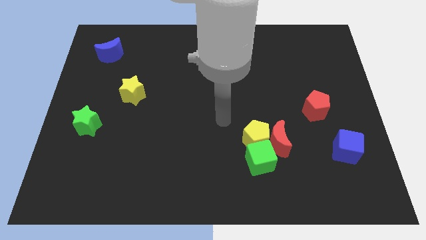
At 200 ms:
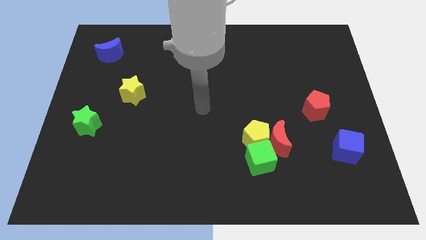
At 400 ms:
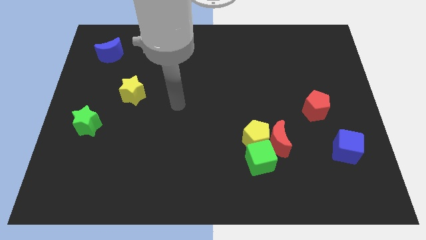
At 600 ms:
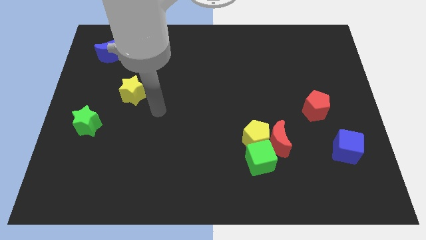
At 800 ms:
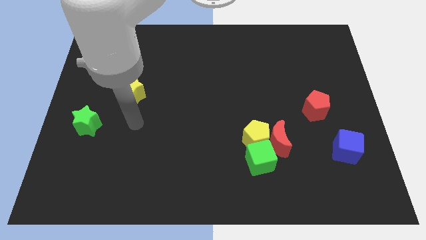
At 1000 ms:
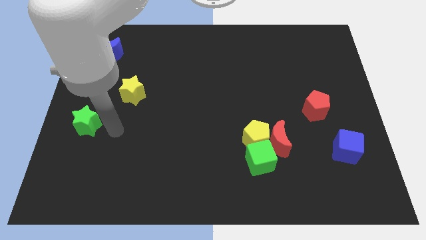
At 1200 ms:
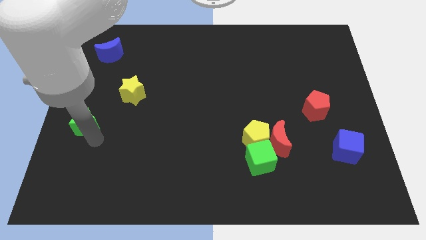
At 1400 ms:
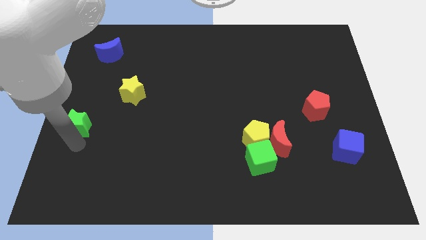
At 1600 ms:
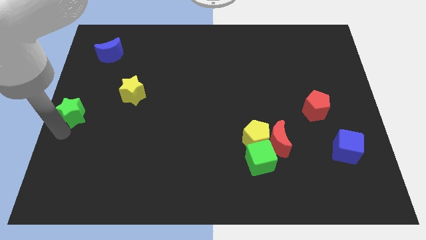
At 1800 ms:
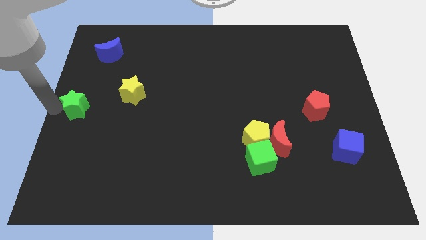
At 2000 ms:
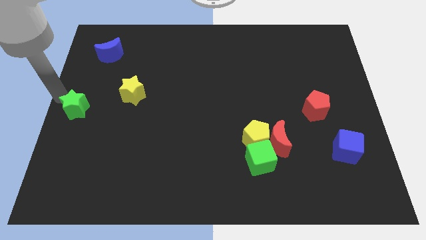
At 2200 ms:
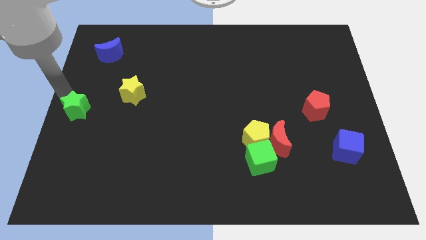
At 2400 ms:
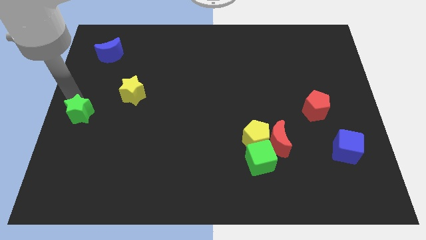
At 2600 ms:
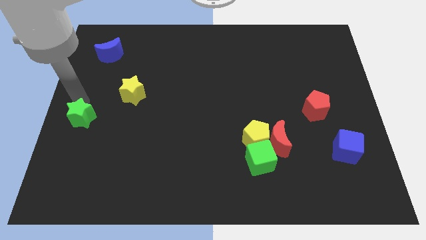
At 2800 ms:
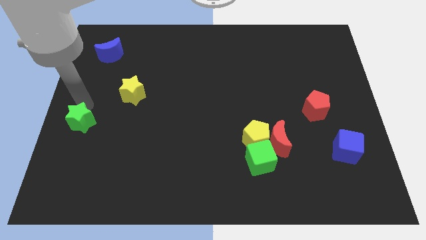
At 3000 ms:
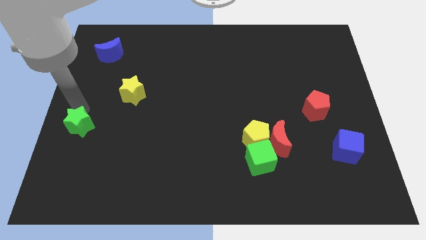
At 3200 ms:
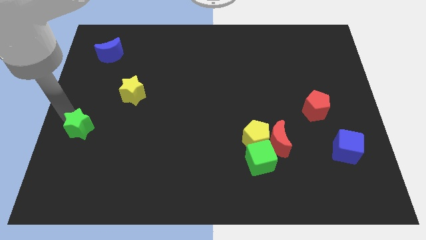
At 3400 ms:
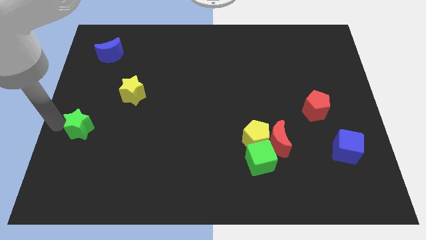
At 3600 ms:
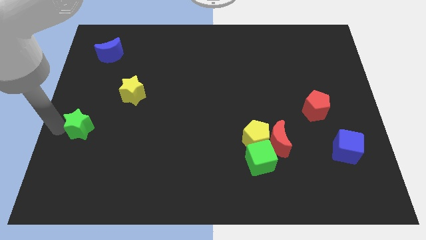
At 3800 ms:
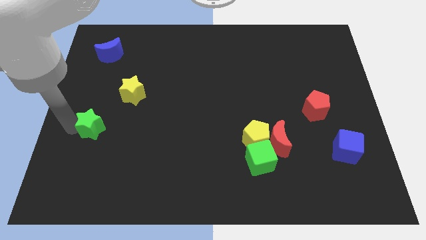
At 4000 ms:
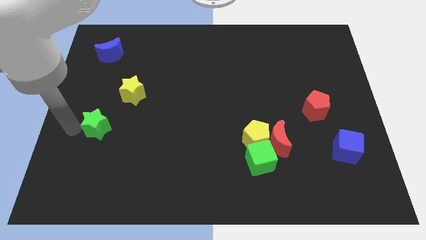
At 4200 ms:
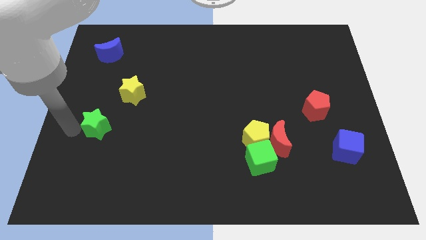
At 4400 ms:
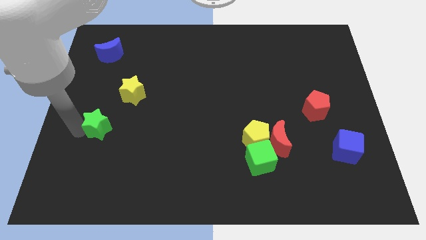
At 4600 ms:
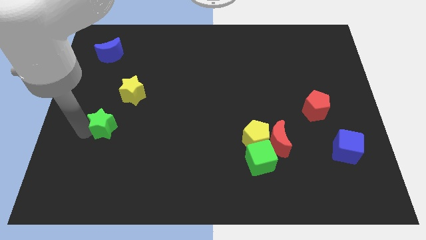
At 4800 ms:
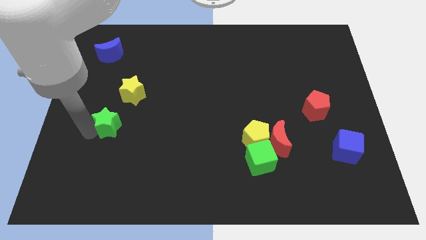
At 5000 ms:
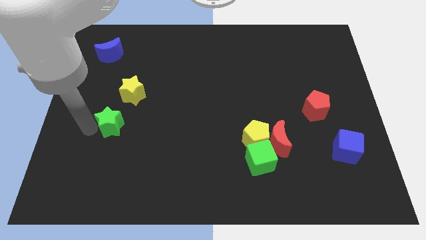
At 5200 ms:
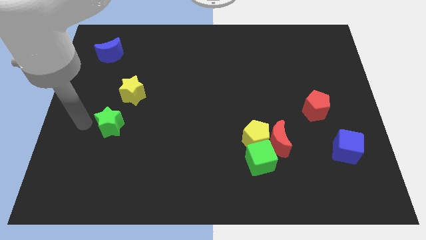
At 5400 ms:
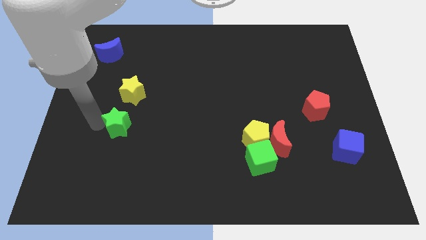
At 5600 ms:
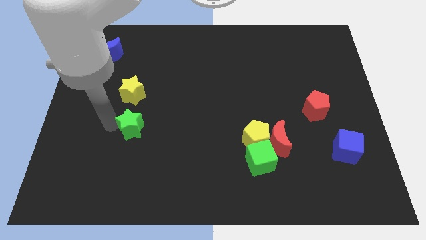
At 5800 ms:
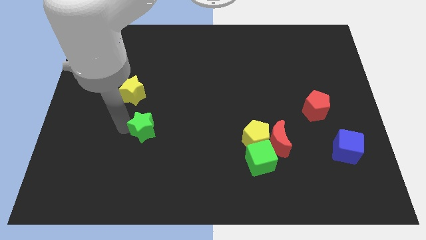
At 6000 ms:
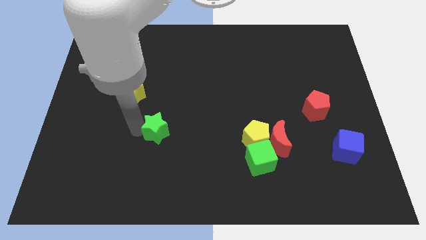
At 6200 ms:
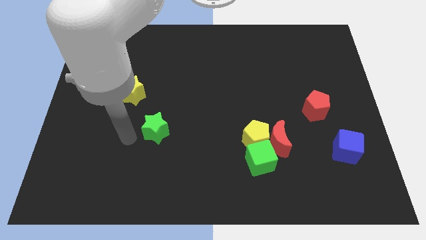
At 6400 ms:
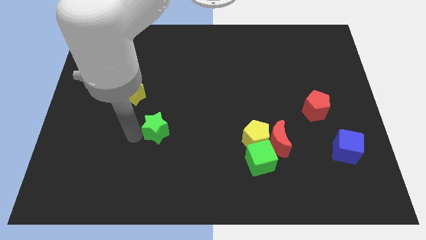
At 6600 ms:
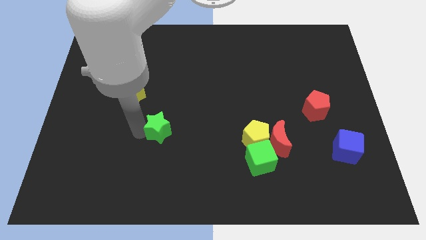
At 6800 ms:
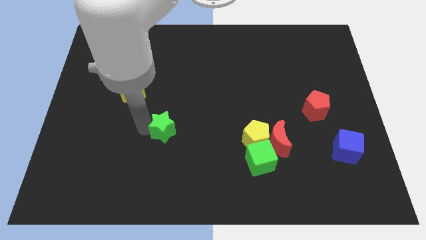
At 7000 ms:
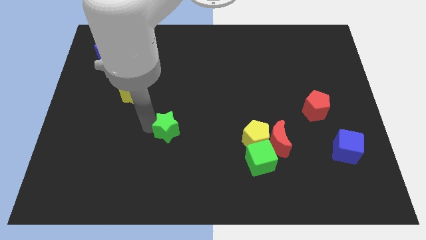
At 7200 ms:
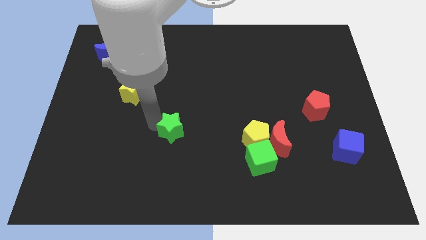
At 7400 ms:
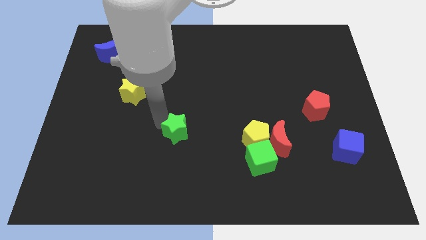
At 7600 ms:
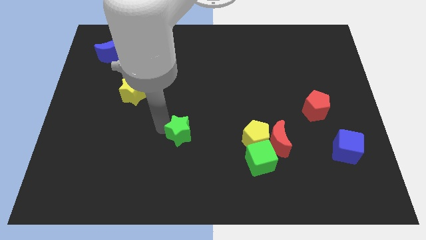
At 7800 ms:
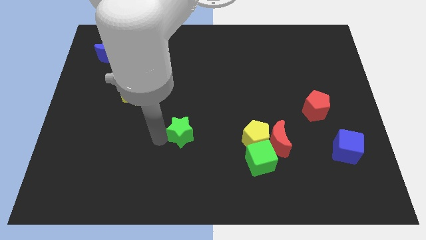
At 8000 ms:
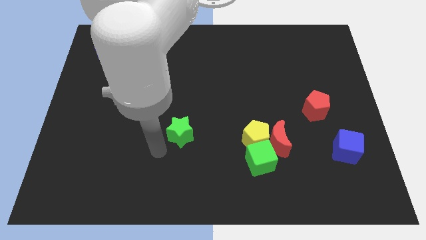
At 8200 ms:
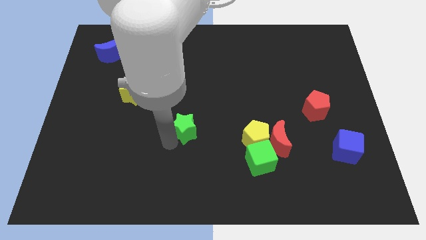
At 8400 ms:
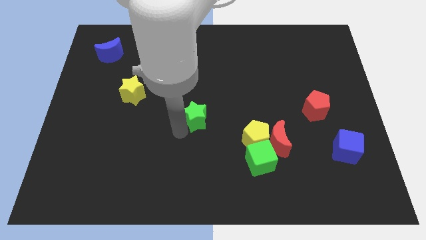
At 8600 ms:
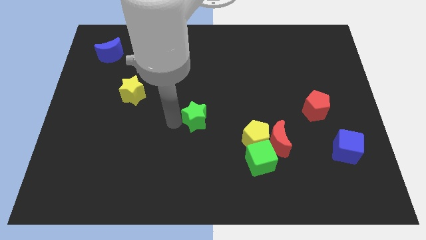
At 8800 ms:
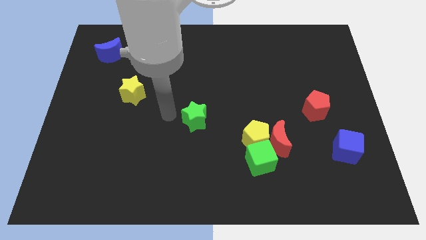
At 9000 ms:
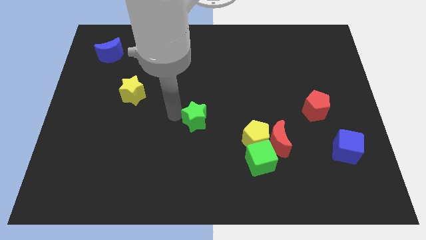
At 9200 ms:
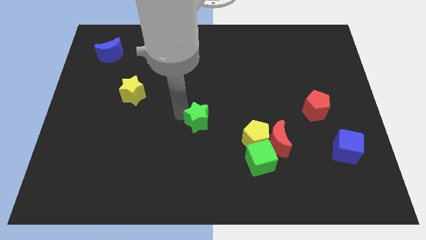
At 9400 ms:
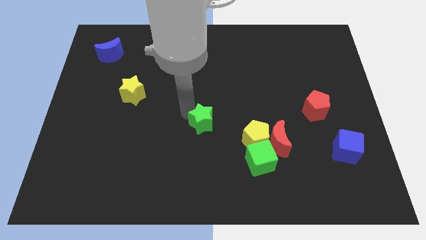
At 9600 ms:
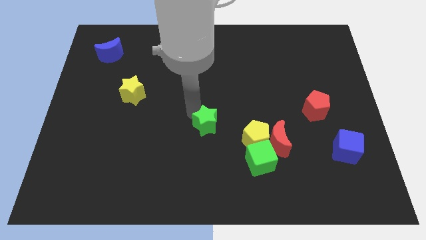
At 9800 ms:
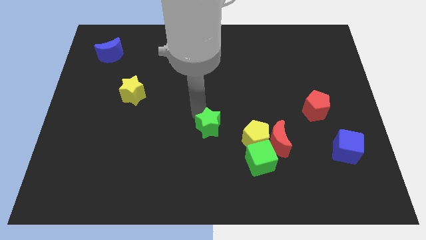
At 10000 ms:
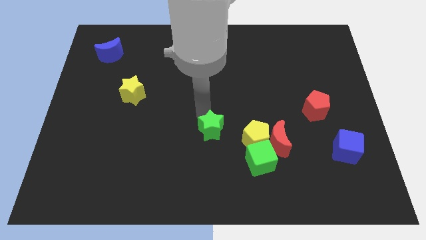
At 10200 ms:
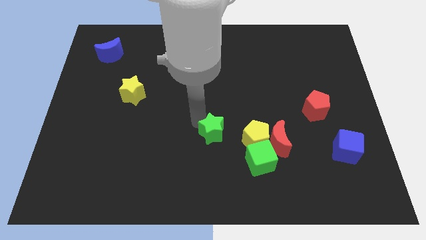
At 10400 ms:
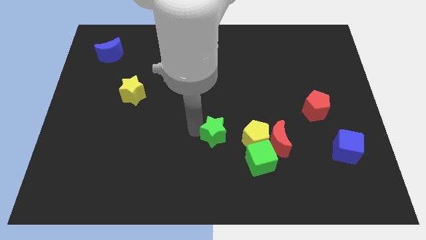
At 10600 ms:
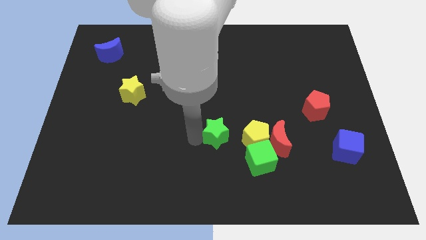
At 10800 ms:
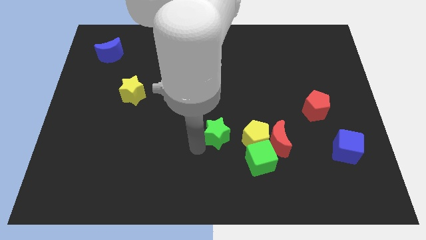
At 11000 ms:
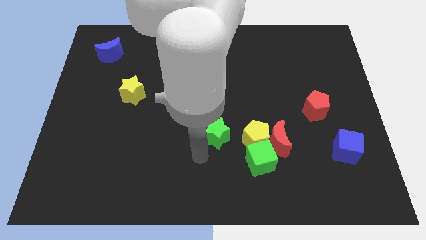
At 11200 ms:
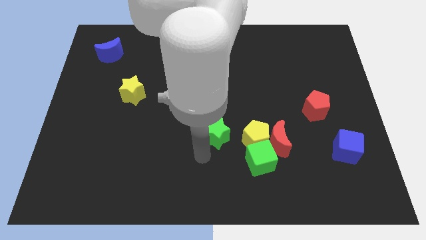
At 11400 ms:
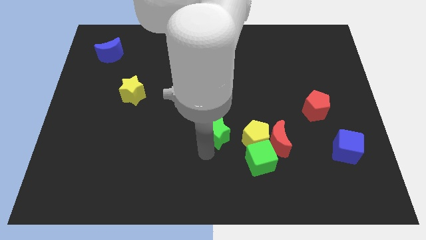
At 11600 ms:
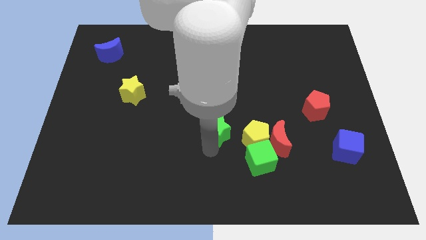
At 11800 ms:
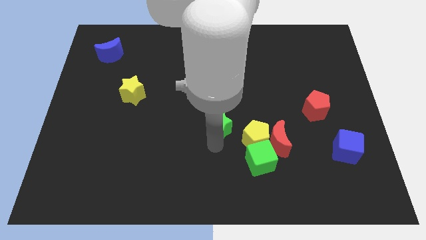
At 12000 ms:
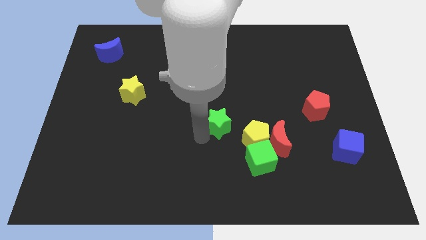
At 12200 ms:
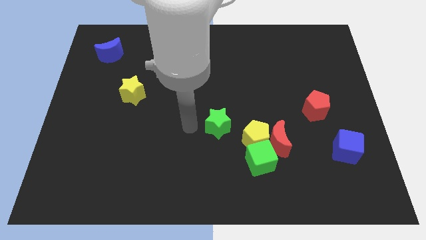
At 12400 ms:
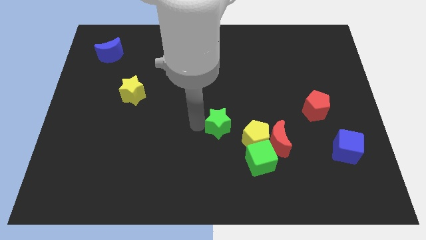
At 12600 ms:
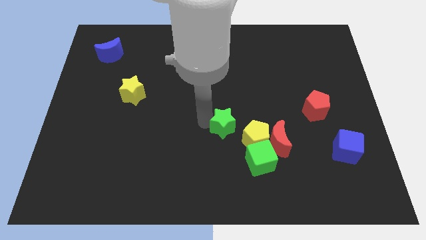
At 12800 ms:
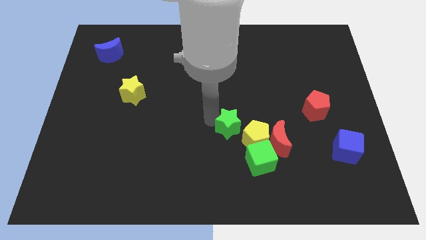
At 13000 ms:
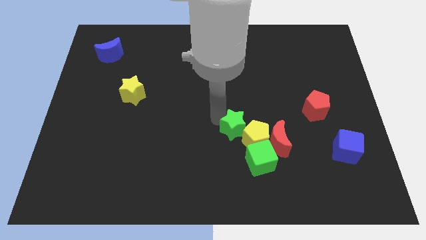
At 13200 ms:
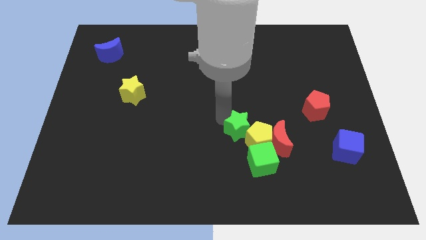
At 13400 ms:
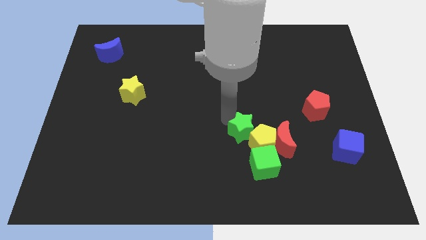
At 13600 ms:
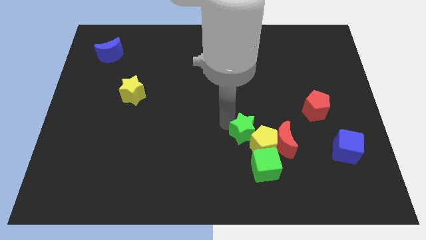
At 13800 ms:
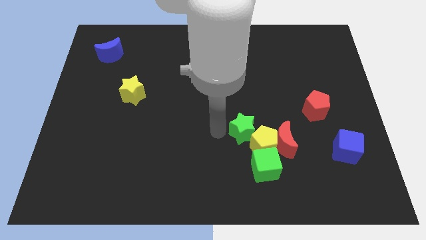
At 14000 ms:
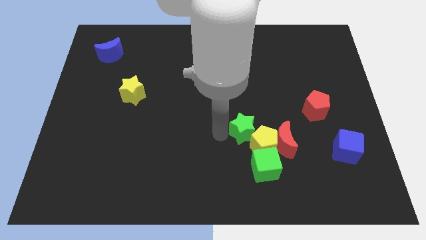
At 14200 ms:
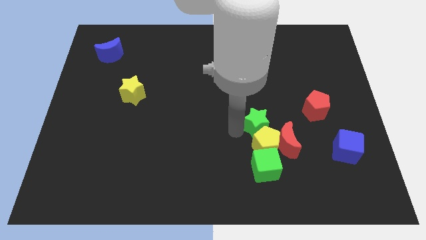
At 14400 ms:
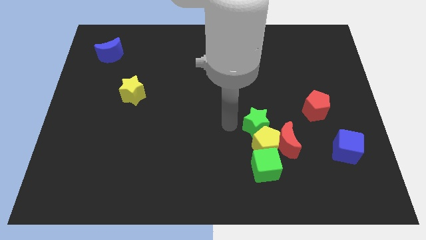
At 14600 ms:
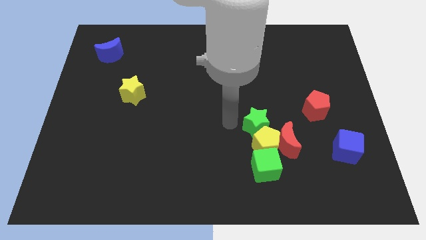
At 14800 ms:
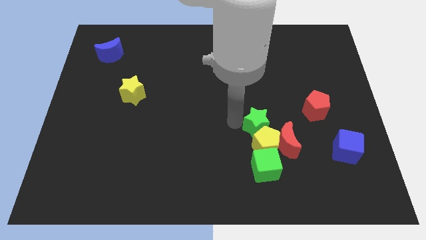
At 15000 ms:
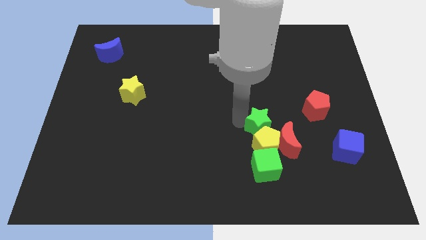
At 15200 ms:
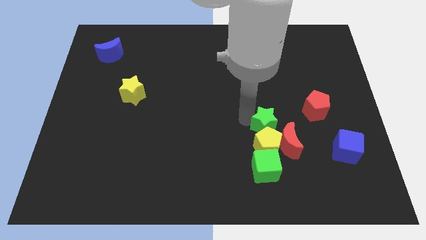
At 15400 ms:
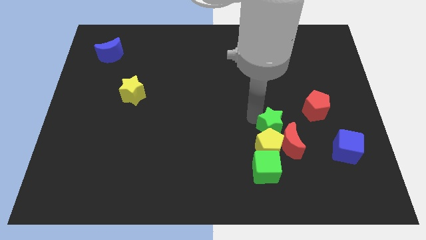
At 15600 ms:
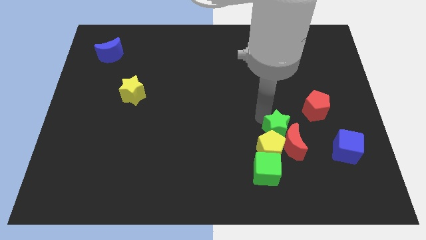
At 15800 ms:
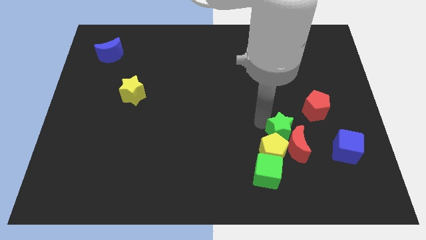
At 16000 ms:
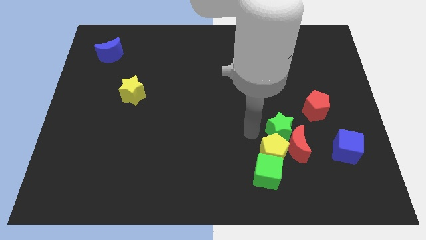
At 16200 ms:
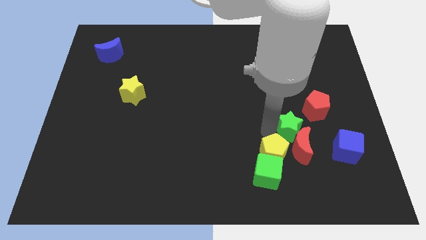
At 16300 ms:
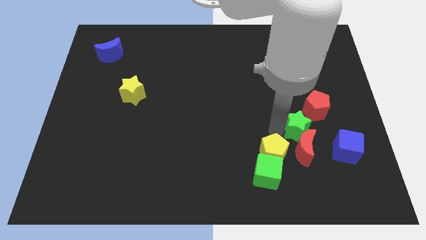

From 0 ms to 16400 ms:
push the green star to the top right of the red moon
